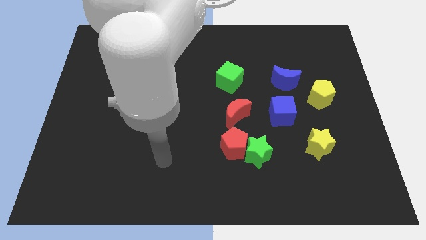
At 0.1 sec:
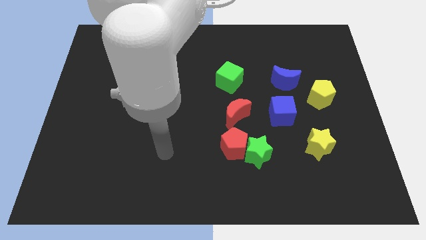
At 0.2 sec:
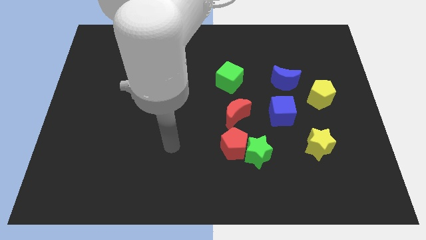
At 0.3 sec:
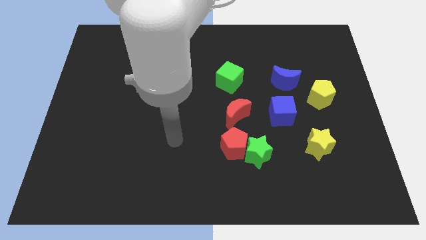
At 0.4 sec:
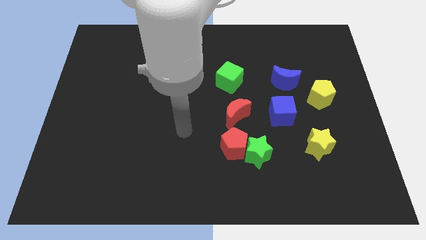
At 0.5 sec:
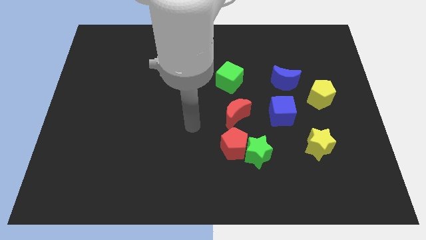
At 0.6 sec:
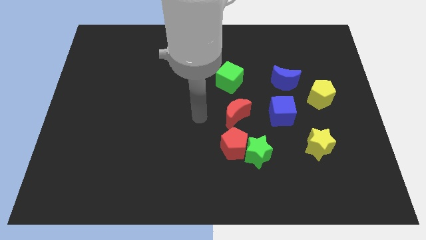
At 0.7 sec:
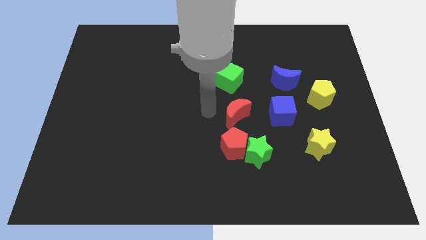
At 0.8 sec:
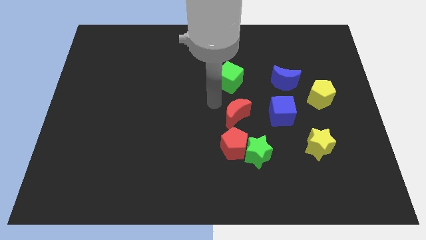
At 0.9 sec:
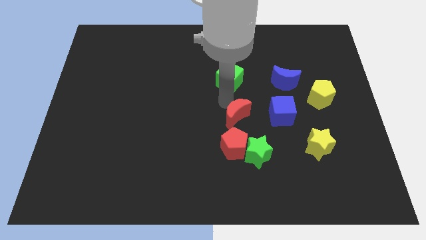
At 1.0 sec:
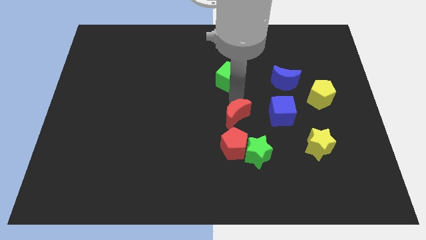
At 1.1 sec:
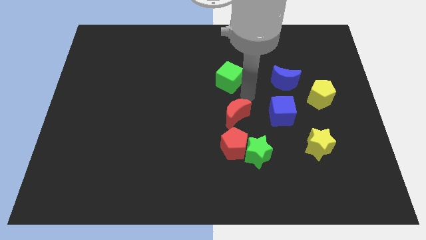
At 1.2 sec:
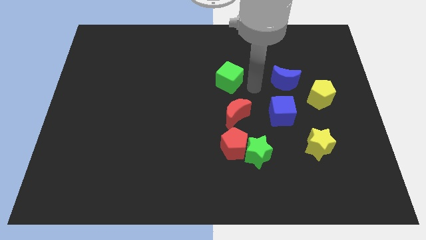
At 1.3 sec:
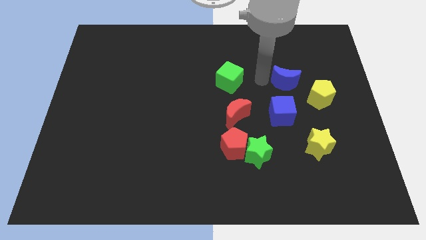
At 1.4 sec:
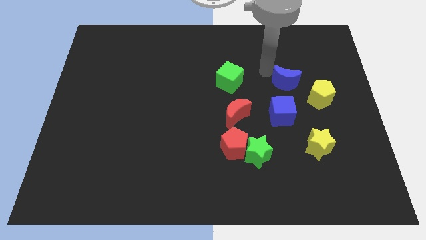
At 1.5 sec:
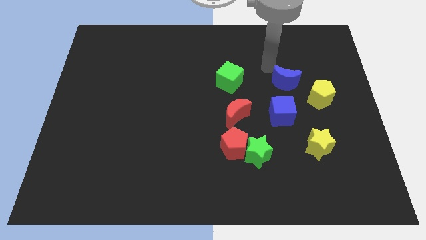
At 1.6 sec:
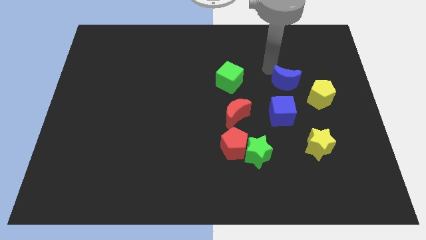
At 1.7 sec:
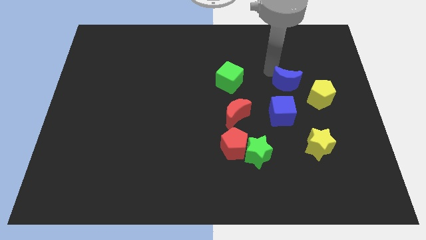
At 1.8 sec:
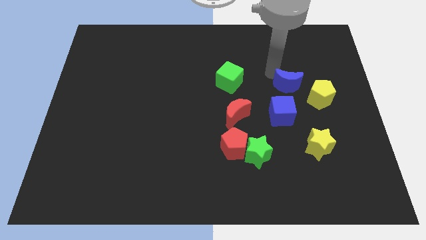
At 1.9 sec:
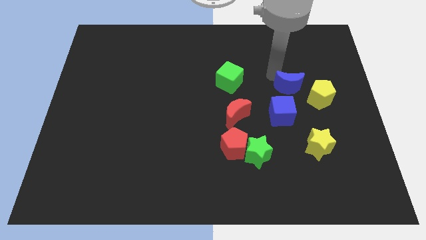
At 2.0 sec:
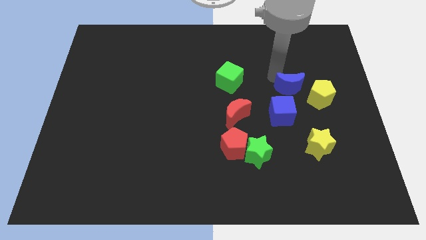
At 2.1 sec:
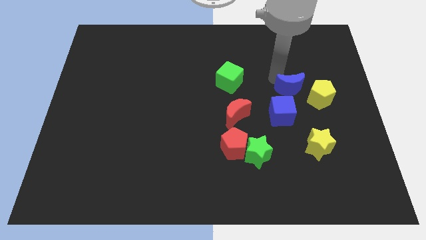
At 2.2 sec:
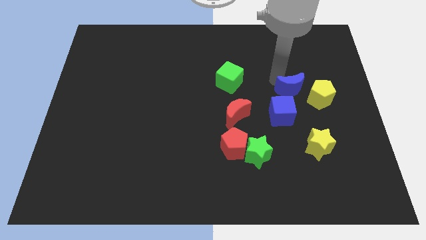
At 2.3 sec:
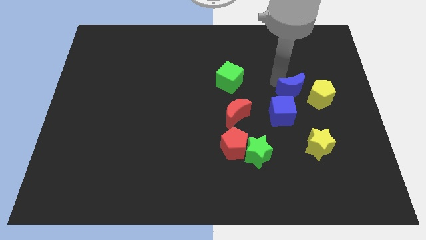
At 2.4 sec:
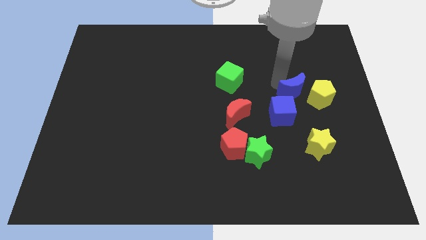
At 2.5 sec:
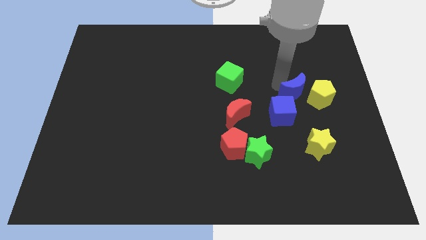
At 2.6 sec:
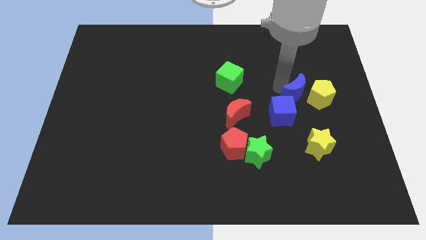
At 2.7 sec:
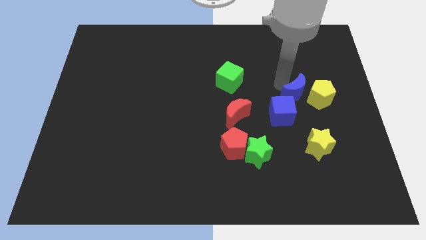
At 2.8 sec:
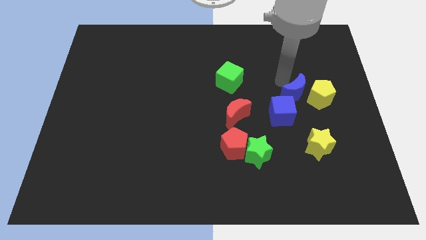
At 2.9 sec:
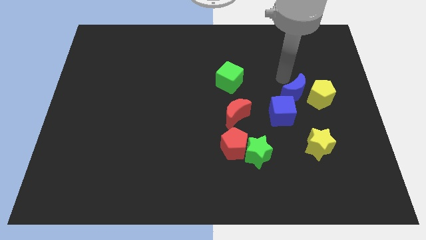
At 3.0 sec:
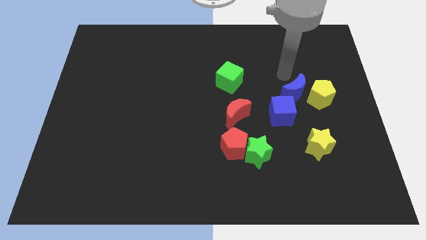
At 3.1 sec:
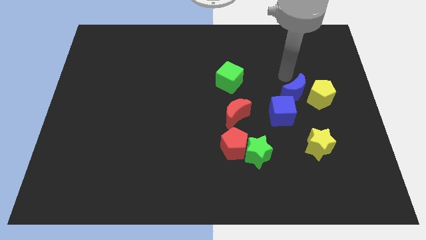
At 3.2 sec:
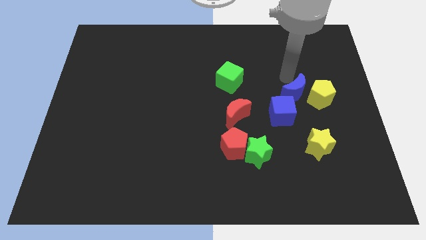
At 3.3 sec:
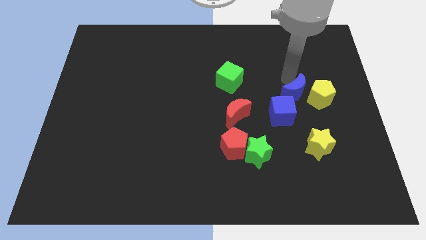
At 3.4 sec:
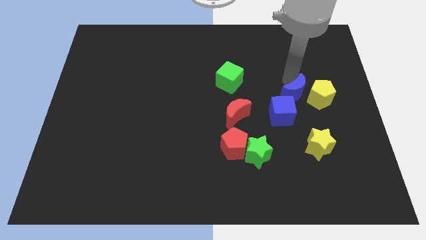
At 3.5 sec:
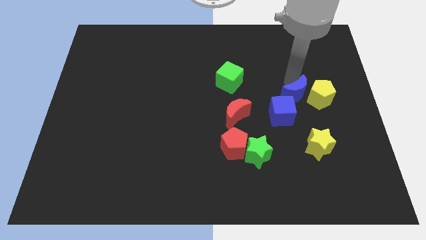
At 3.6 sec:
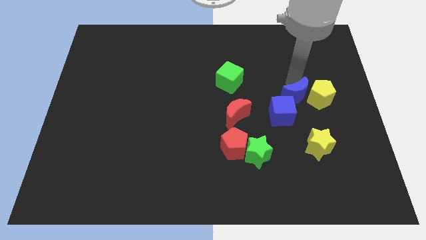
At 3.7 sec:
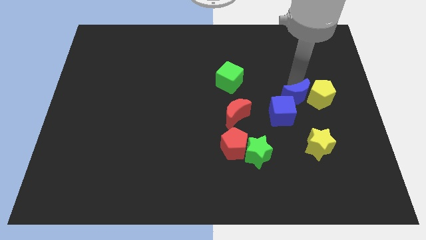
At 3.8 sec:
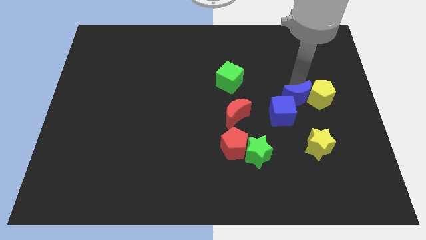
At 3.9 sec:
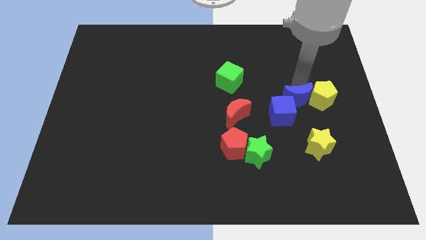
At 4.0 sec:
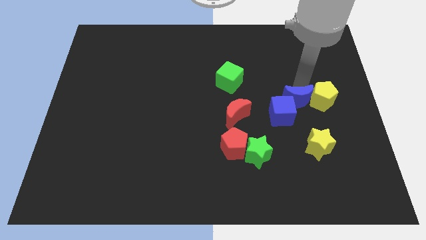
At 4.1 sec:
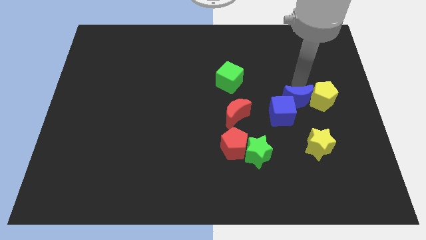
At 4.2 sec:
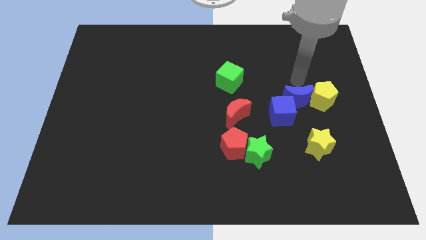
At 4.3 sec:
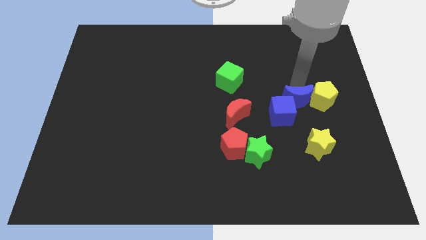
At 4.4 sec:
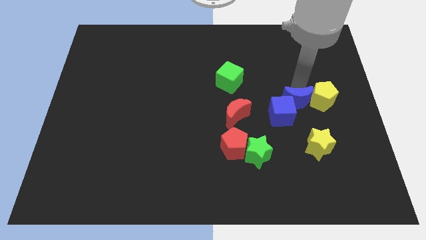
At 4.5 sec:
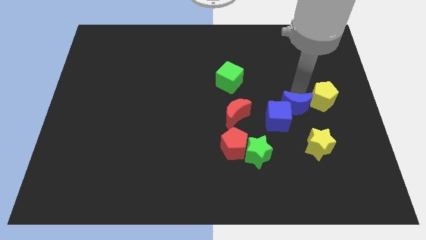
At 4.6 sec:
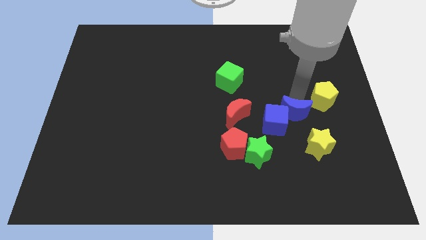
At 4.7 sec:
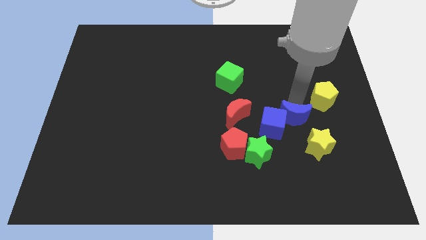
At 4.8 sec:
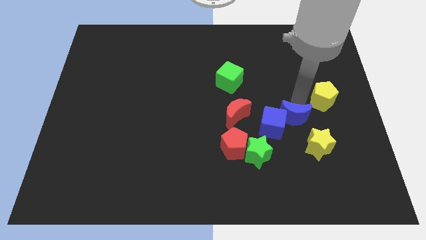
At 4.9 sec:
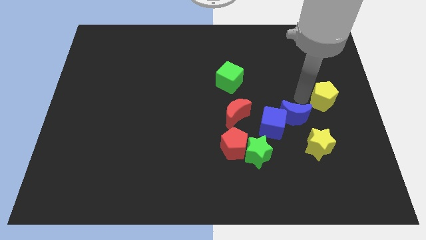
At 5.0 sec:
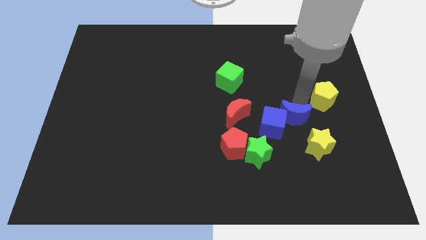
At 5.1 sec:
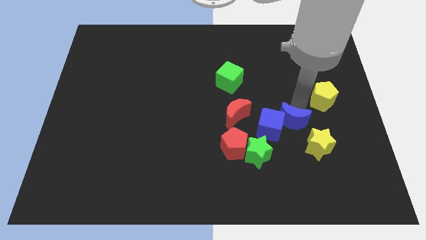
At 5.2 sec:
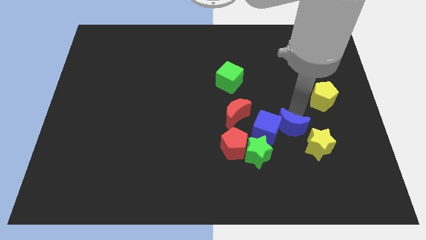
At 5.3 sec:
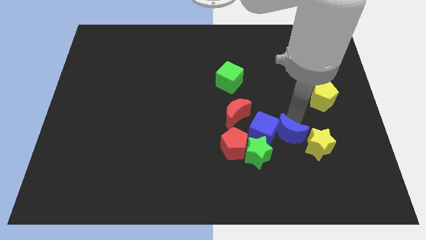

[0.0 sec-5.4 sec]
put the blue moon to the right side of the red pentagon

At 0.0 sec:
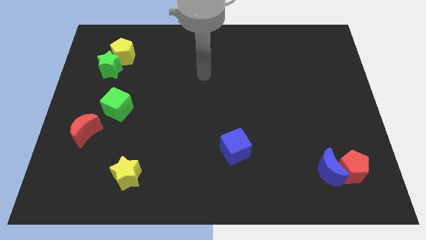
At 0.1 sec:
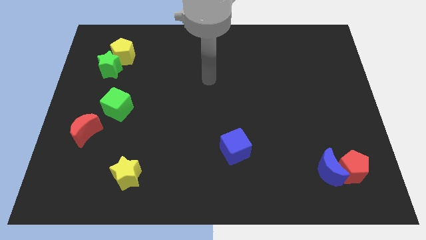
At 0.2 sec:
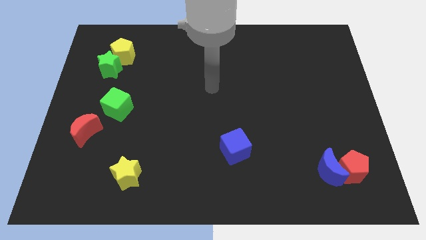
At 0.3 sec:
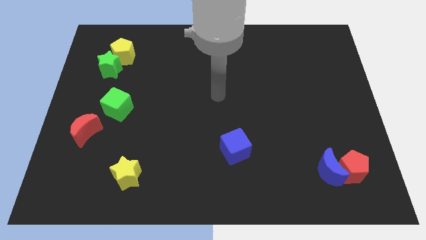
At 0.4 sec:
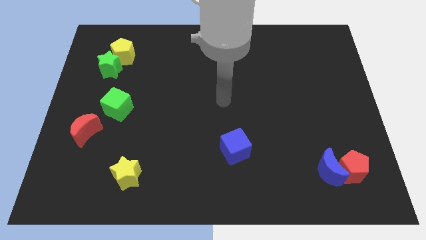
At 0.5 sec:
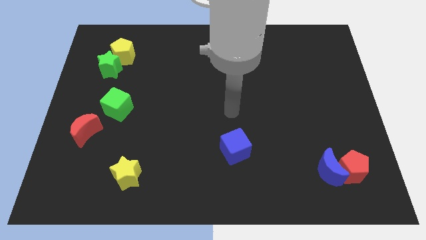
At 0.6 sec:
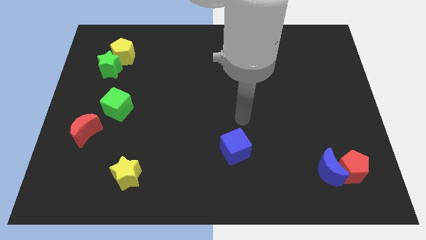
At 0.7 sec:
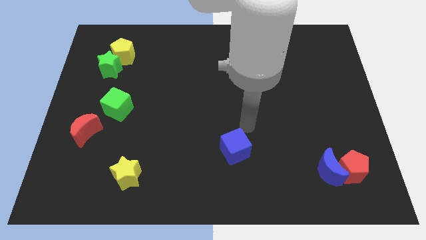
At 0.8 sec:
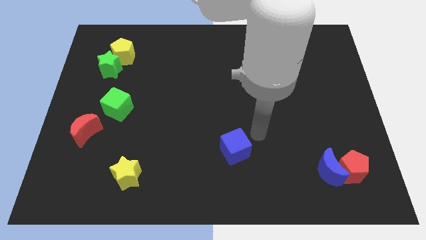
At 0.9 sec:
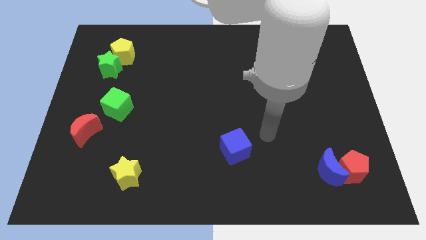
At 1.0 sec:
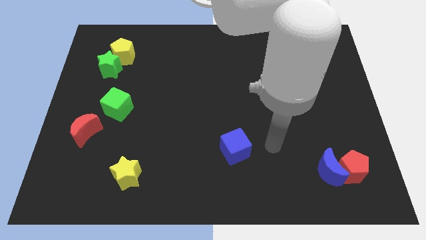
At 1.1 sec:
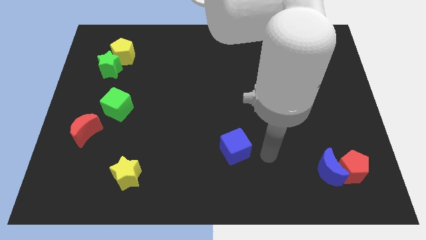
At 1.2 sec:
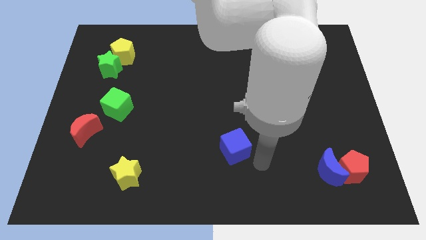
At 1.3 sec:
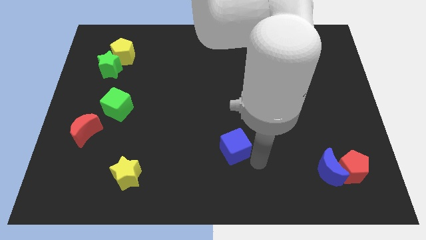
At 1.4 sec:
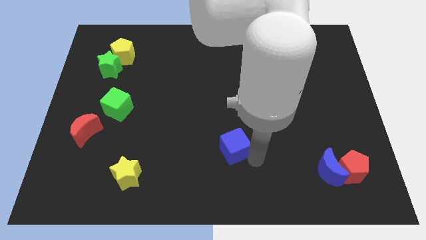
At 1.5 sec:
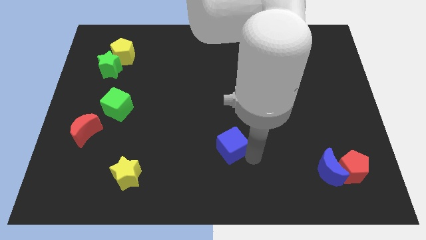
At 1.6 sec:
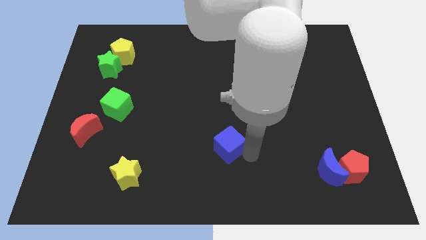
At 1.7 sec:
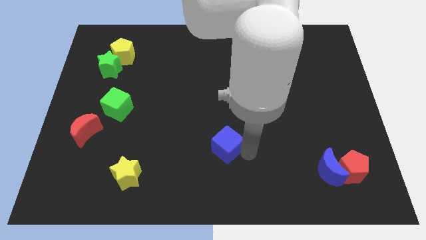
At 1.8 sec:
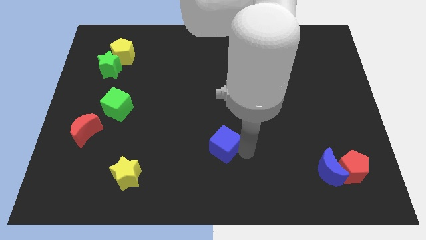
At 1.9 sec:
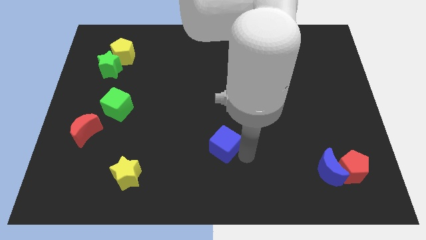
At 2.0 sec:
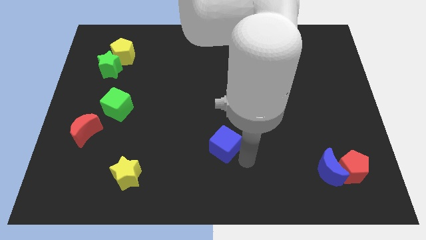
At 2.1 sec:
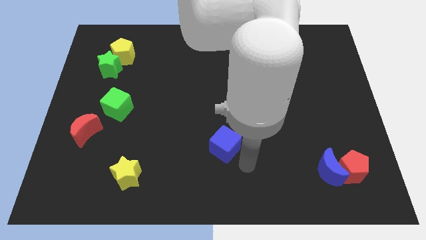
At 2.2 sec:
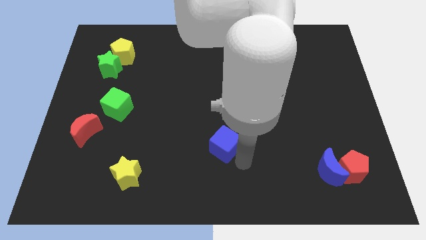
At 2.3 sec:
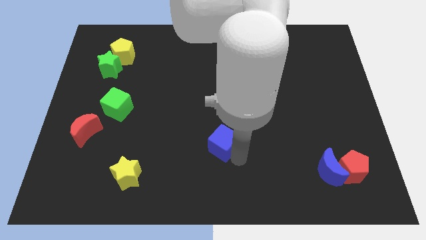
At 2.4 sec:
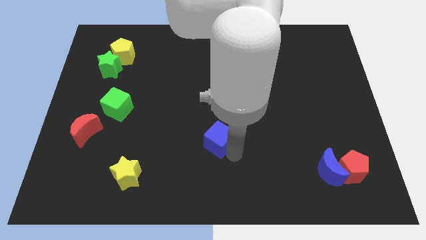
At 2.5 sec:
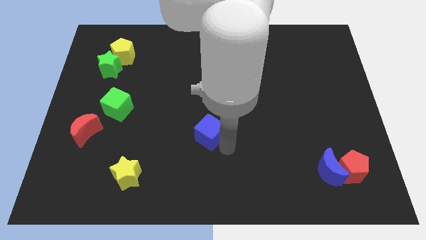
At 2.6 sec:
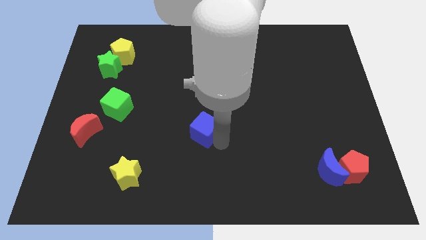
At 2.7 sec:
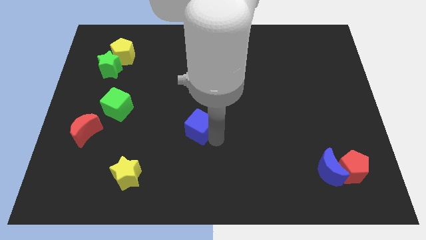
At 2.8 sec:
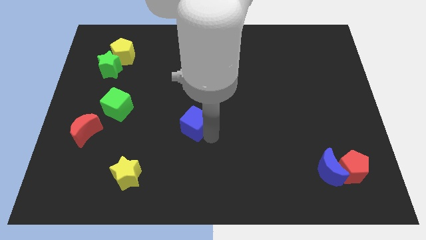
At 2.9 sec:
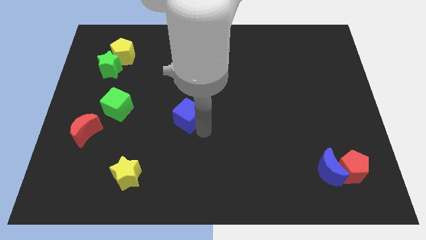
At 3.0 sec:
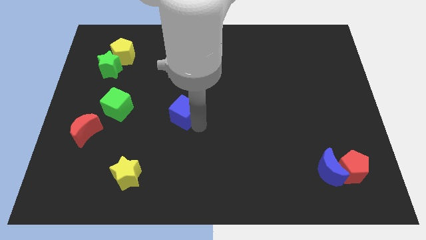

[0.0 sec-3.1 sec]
put the blue cube right of the green cube
